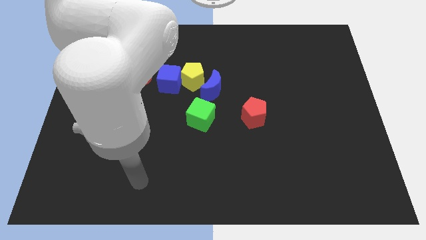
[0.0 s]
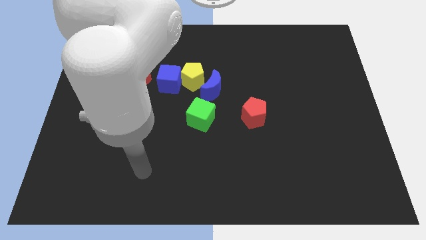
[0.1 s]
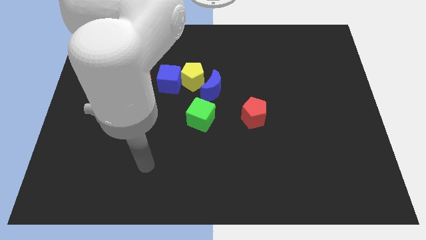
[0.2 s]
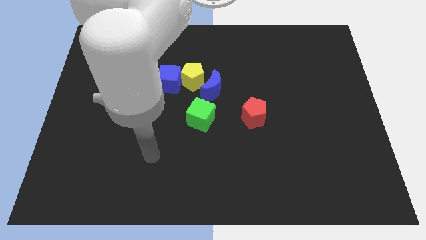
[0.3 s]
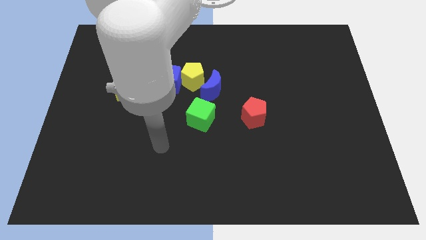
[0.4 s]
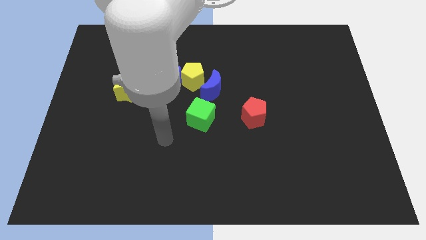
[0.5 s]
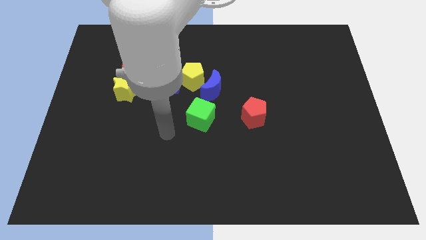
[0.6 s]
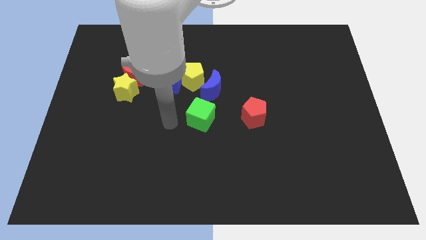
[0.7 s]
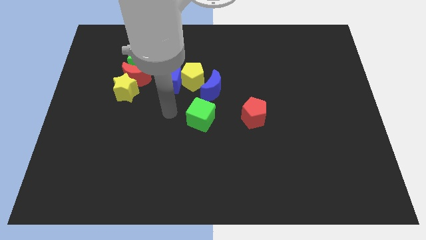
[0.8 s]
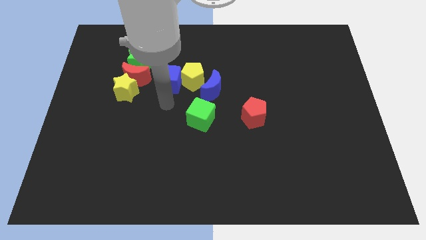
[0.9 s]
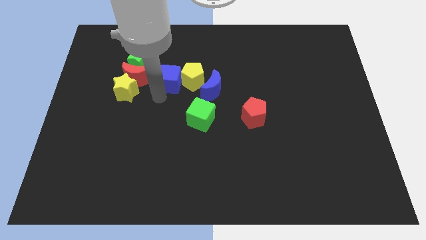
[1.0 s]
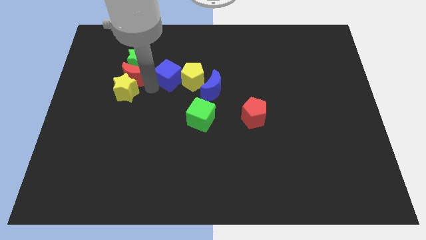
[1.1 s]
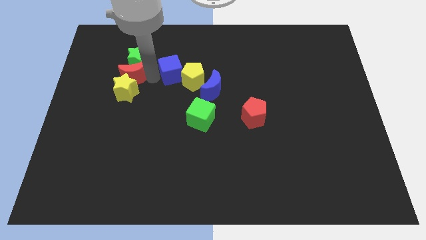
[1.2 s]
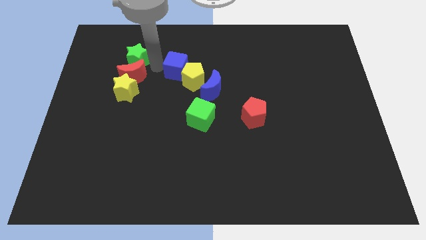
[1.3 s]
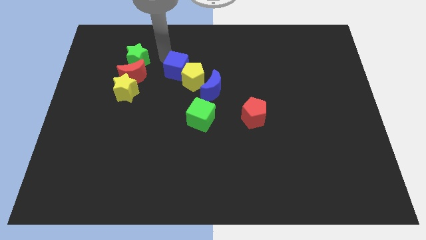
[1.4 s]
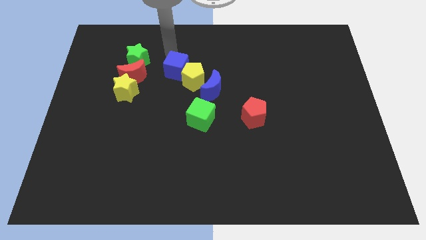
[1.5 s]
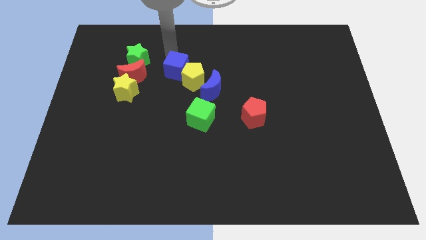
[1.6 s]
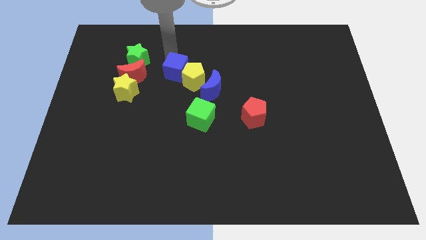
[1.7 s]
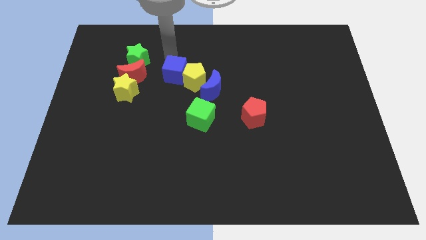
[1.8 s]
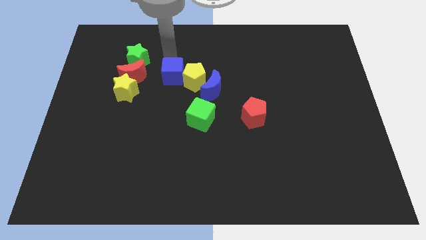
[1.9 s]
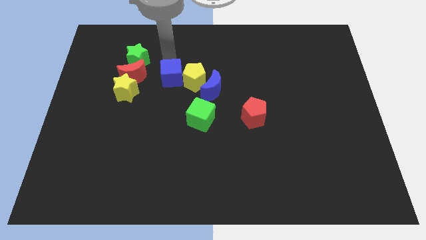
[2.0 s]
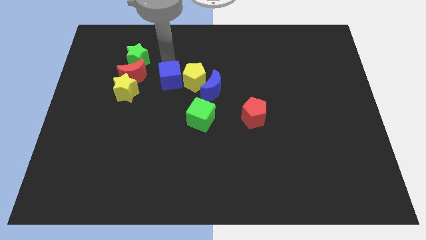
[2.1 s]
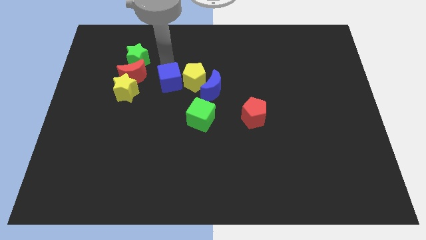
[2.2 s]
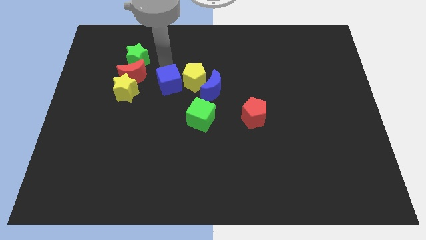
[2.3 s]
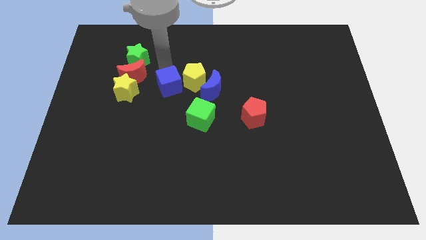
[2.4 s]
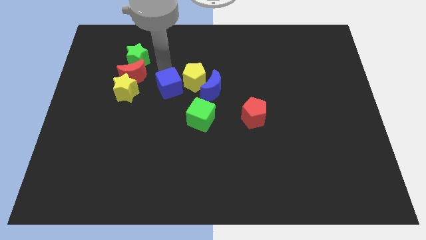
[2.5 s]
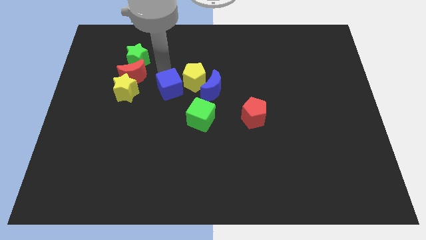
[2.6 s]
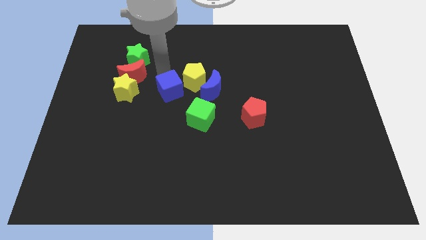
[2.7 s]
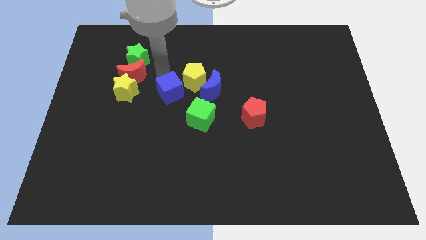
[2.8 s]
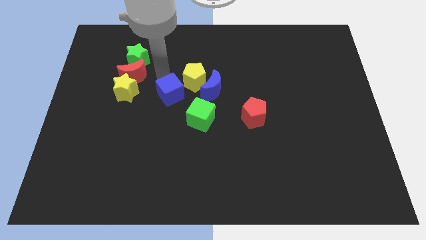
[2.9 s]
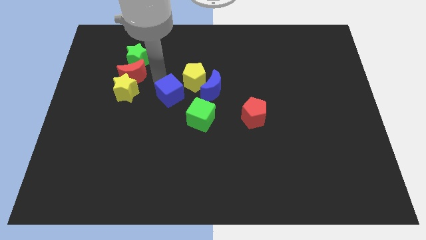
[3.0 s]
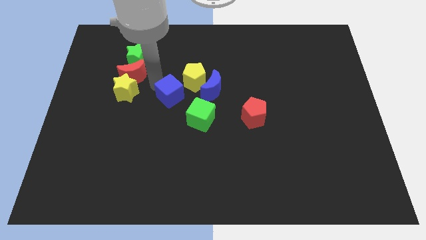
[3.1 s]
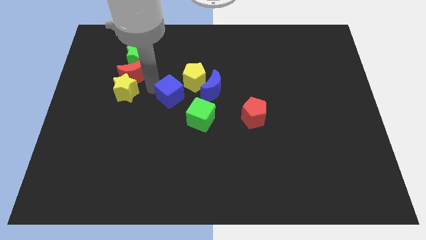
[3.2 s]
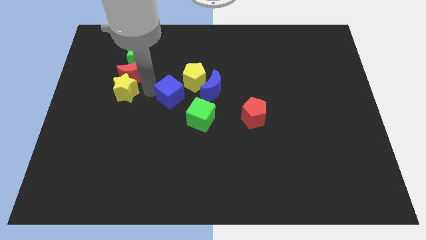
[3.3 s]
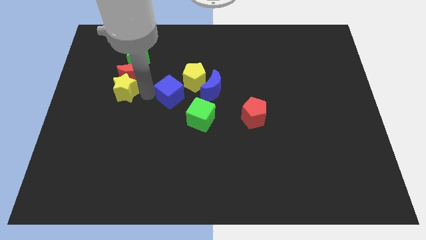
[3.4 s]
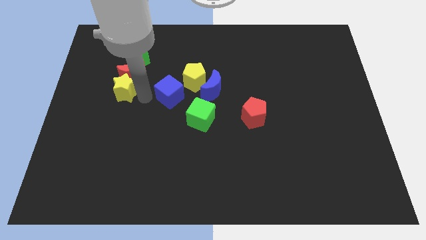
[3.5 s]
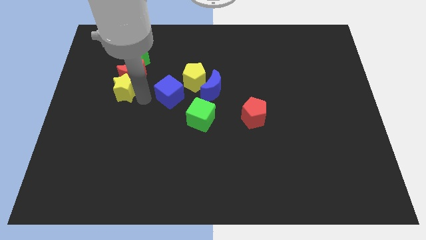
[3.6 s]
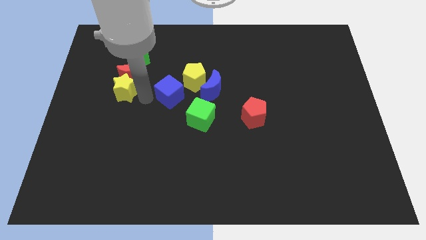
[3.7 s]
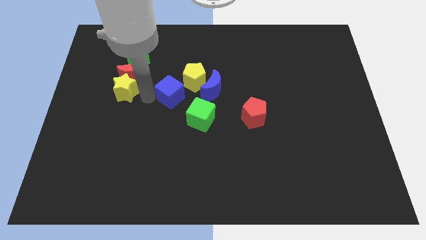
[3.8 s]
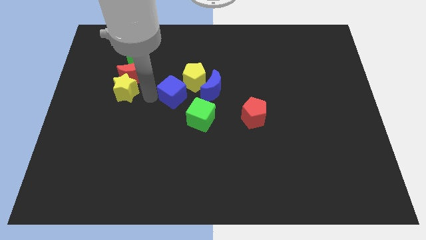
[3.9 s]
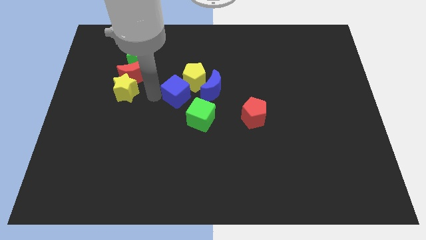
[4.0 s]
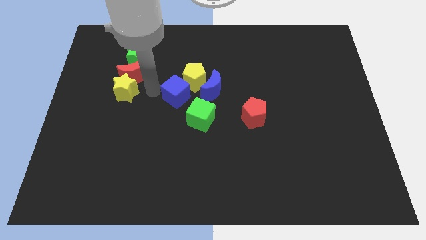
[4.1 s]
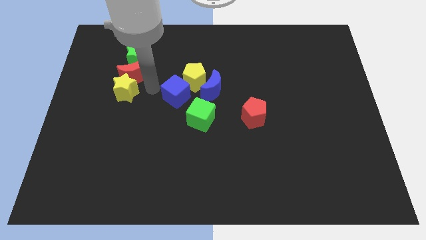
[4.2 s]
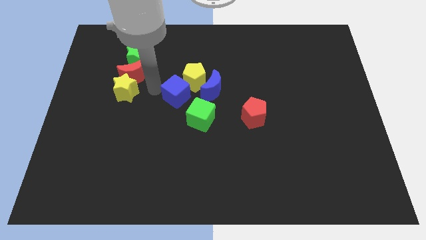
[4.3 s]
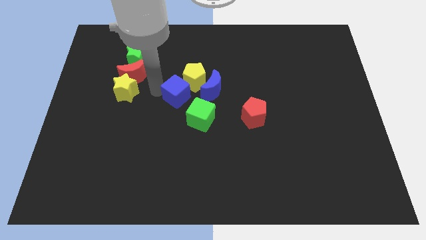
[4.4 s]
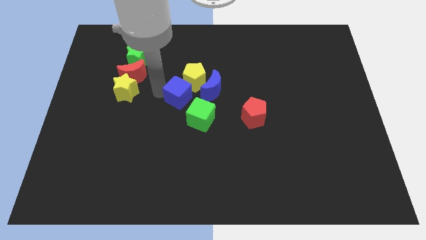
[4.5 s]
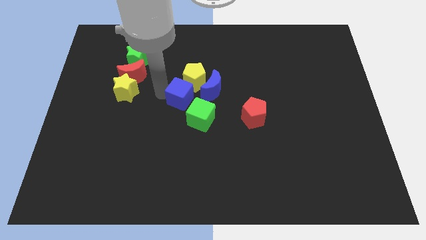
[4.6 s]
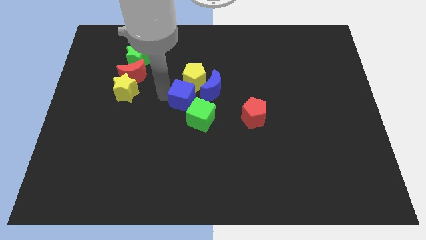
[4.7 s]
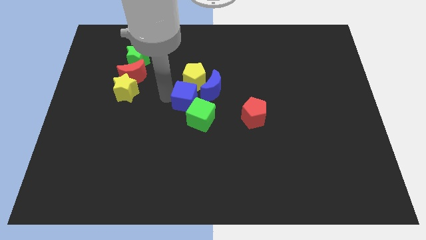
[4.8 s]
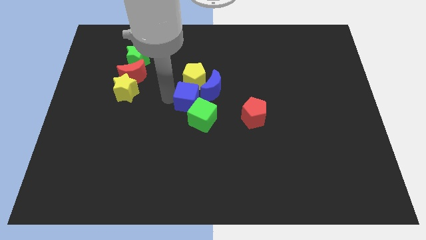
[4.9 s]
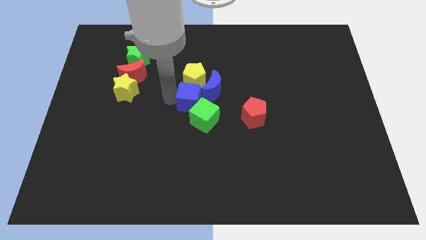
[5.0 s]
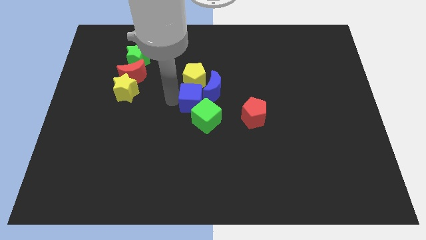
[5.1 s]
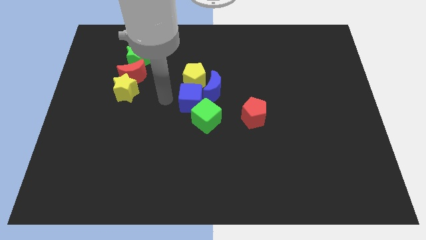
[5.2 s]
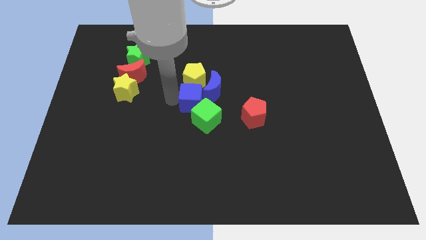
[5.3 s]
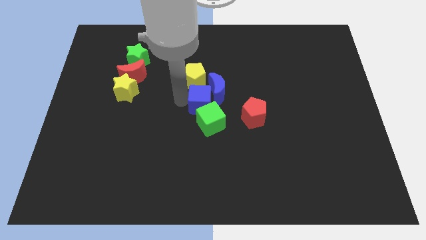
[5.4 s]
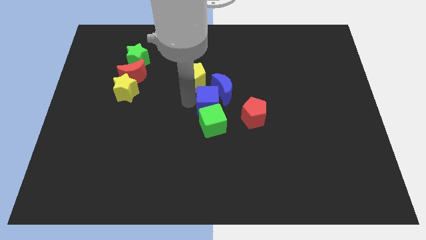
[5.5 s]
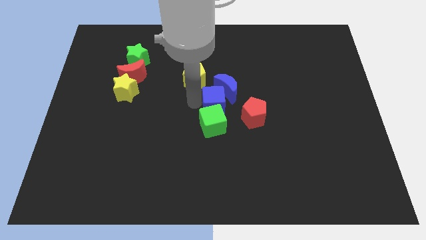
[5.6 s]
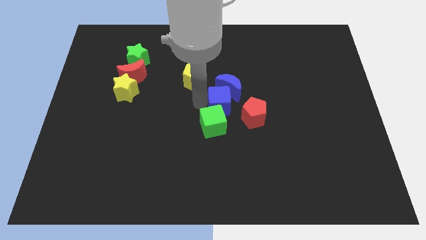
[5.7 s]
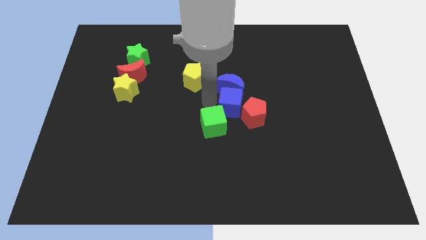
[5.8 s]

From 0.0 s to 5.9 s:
move the blue cube to the red pentagon

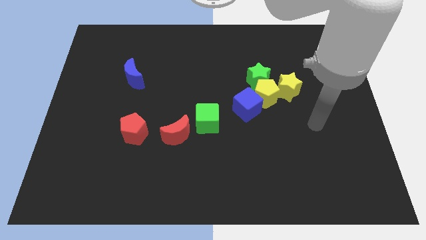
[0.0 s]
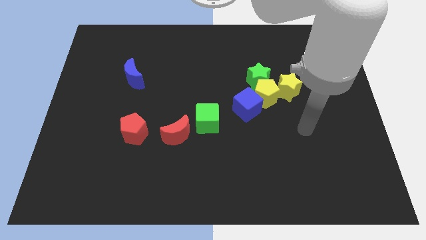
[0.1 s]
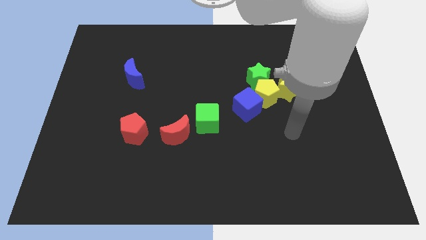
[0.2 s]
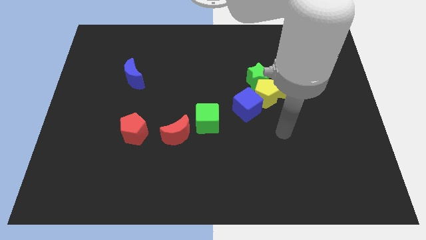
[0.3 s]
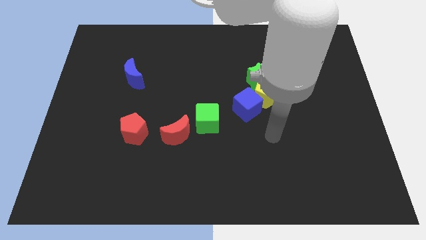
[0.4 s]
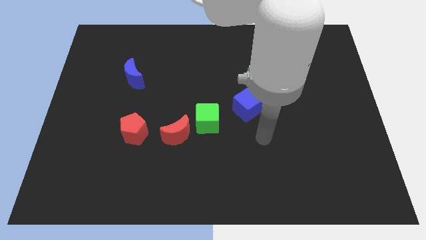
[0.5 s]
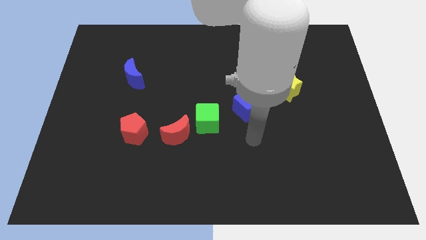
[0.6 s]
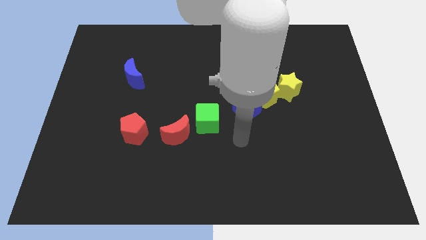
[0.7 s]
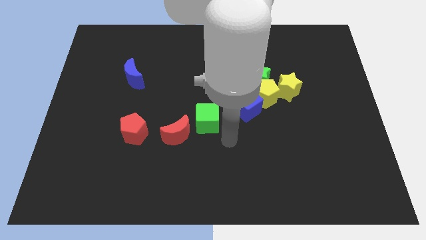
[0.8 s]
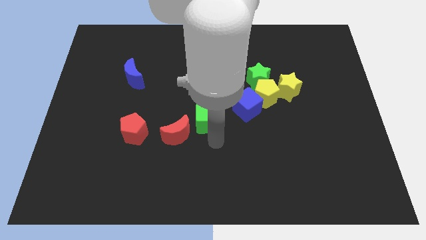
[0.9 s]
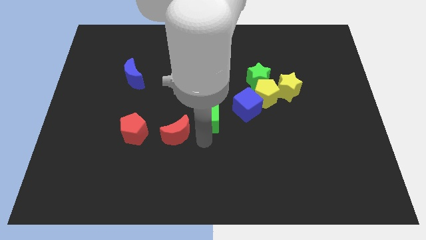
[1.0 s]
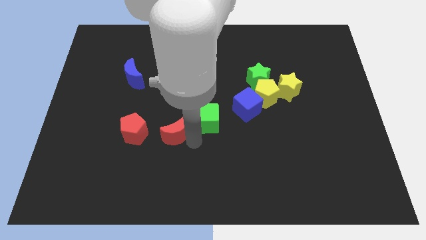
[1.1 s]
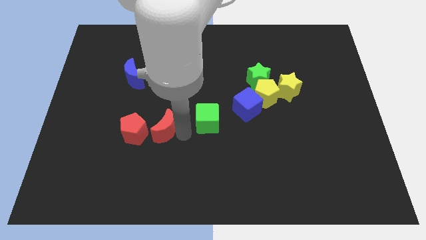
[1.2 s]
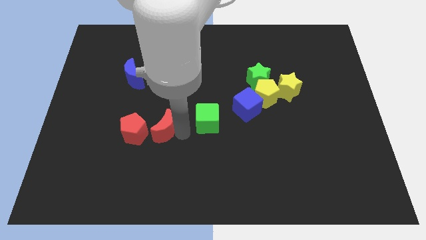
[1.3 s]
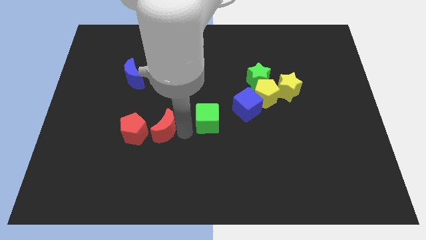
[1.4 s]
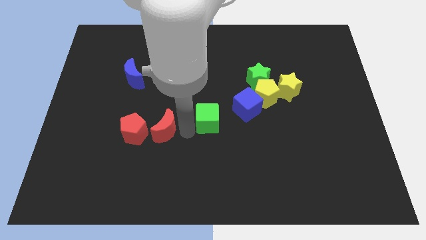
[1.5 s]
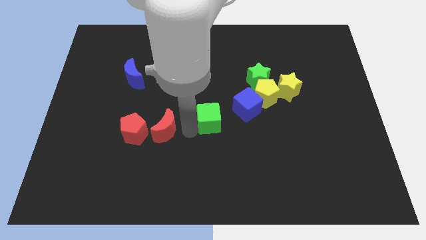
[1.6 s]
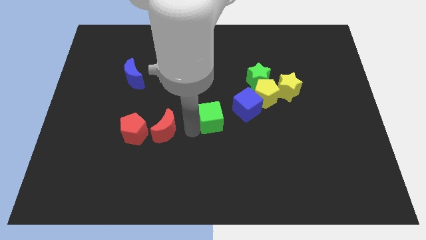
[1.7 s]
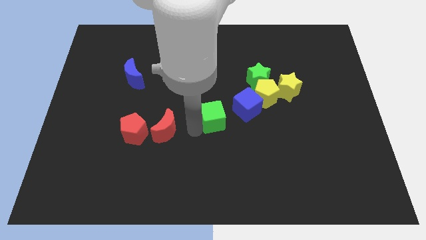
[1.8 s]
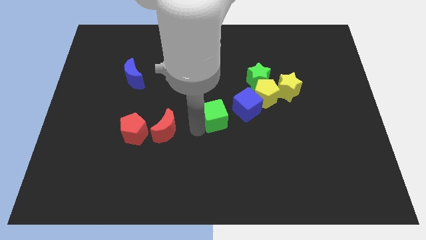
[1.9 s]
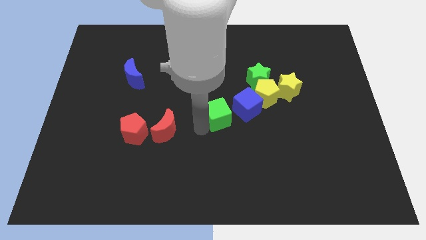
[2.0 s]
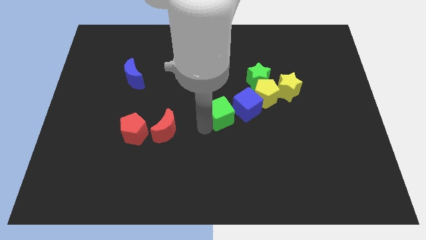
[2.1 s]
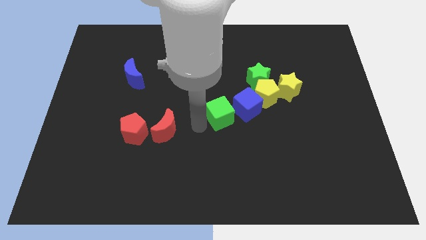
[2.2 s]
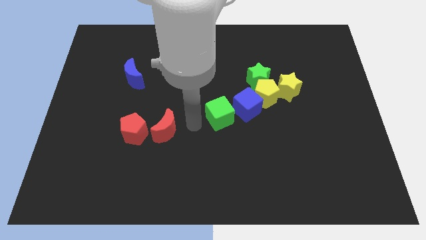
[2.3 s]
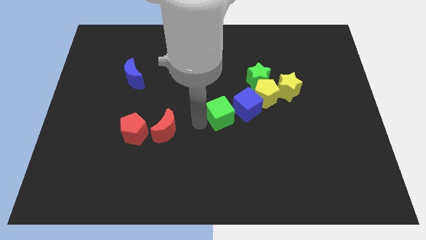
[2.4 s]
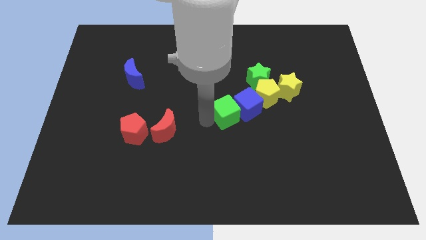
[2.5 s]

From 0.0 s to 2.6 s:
slide the green cube next to the blue cube
